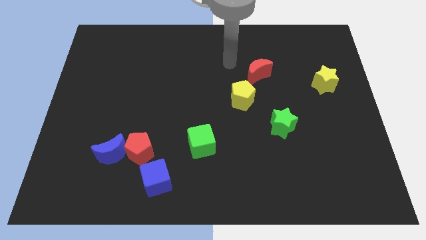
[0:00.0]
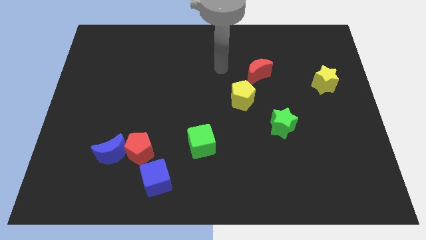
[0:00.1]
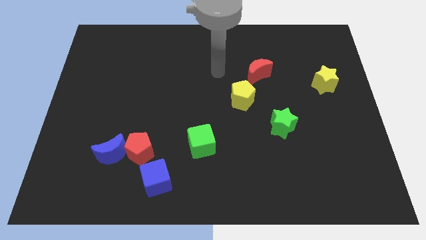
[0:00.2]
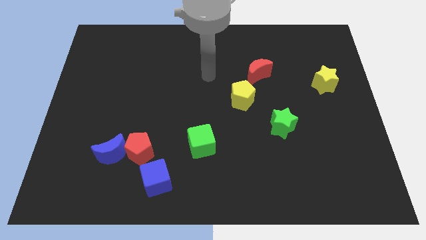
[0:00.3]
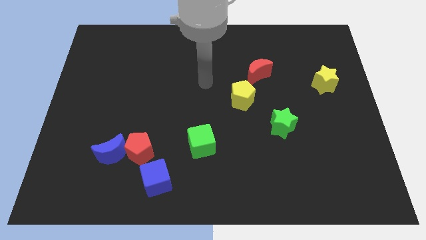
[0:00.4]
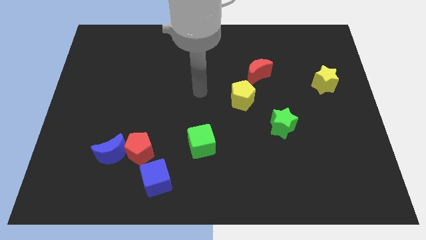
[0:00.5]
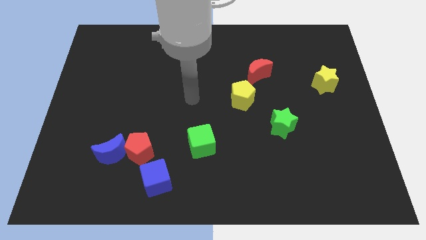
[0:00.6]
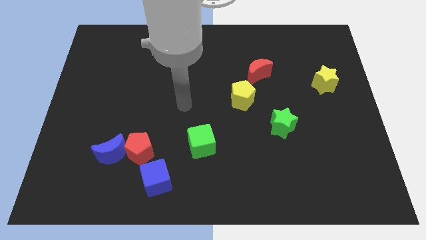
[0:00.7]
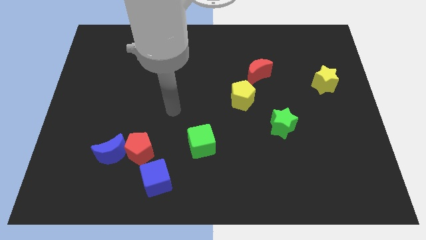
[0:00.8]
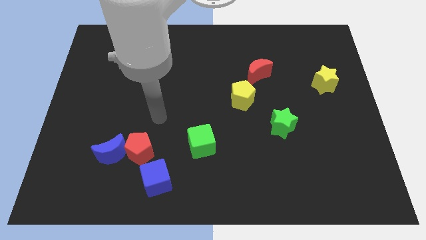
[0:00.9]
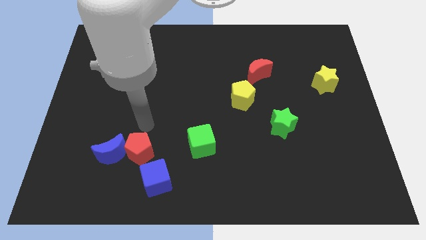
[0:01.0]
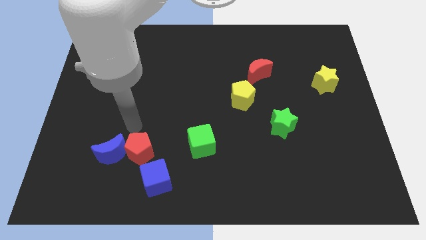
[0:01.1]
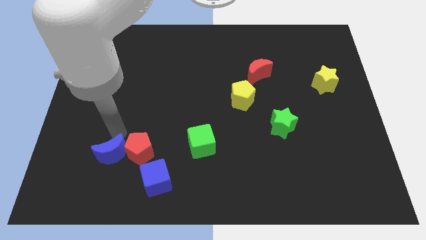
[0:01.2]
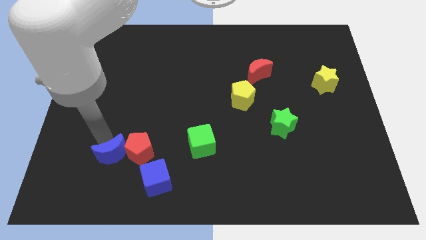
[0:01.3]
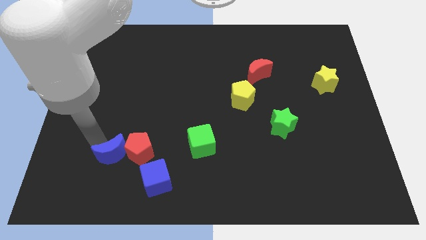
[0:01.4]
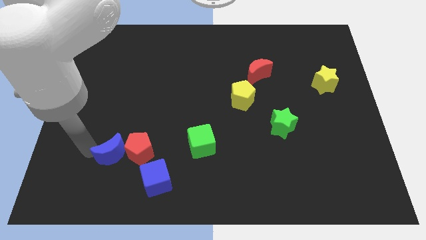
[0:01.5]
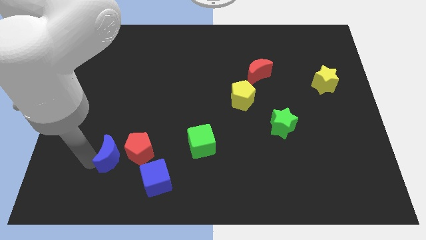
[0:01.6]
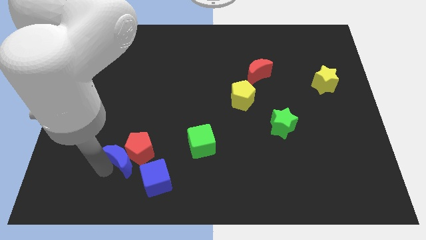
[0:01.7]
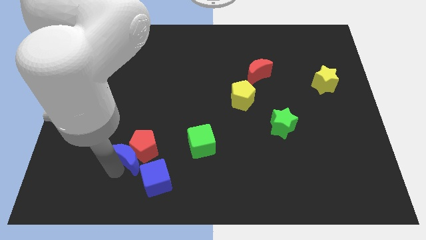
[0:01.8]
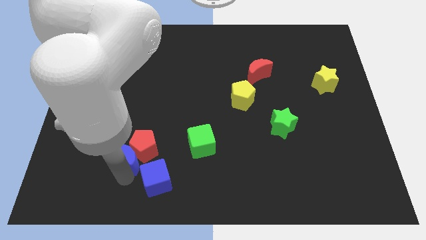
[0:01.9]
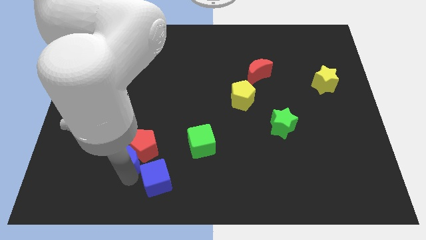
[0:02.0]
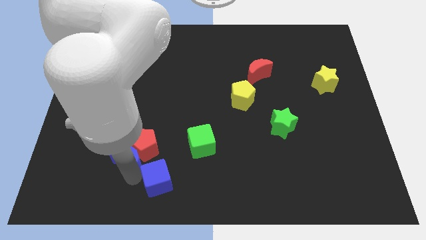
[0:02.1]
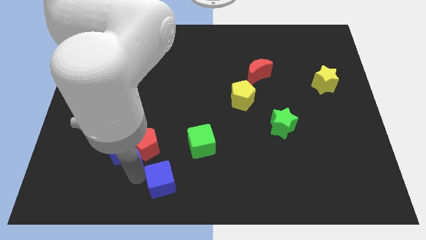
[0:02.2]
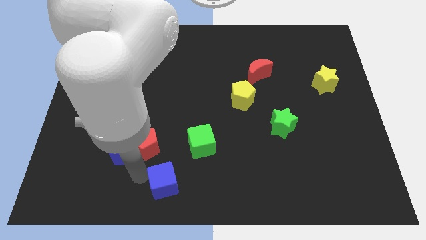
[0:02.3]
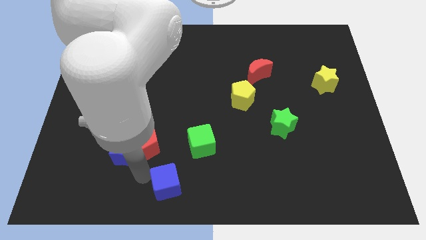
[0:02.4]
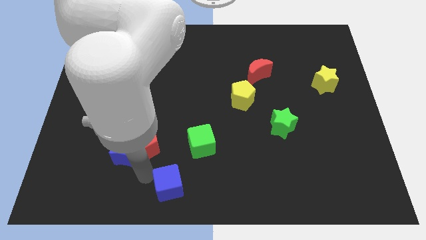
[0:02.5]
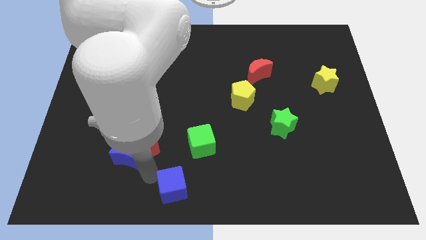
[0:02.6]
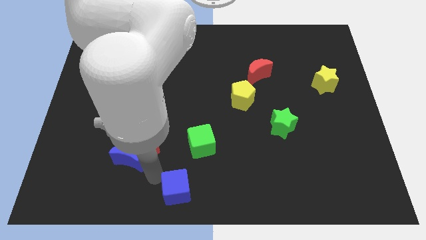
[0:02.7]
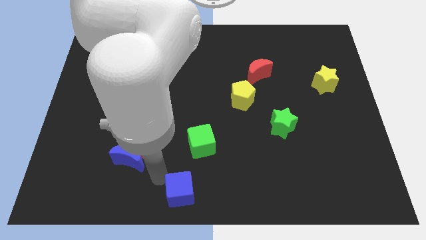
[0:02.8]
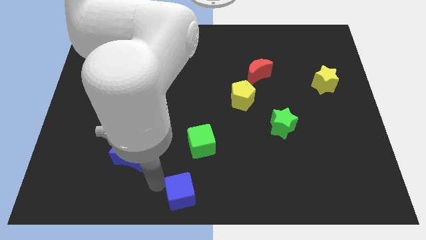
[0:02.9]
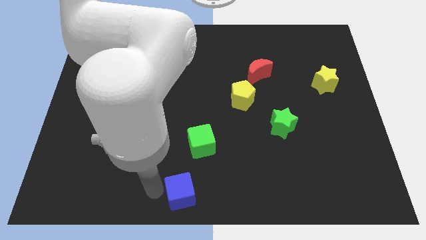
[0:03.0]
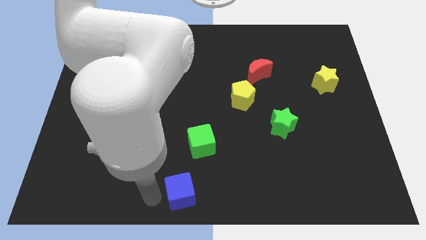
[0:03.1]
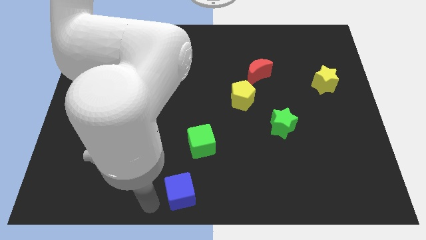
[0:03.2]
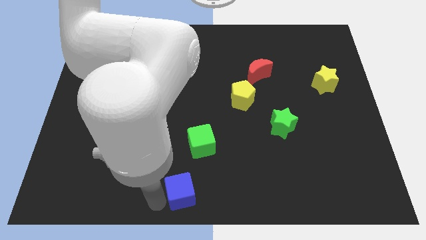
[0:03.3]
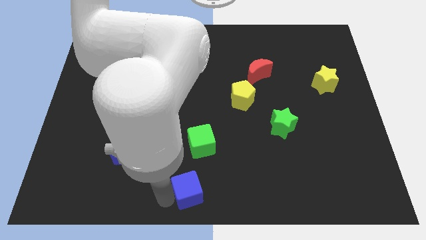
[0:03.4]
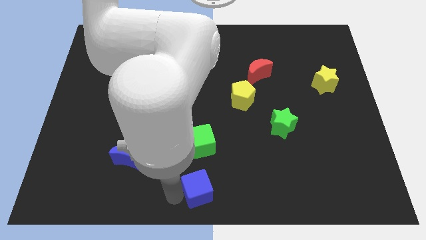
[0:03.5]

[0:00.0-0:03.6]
move the blue cube a little bit right

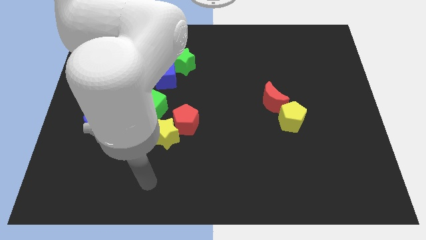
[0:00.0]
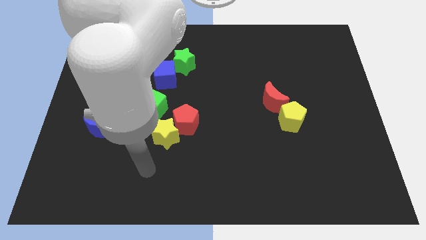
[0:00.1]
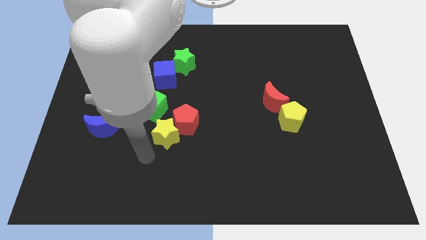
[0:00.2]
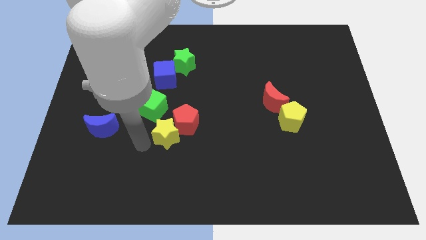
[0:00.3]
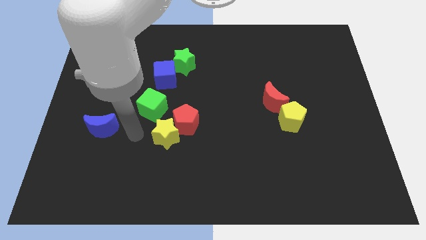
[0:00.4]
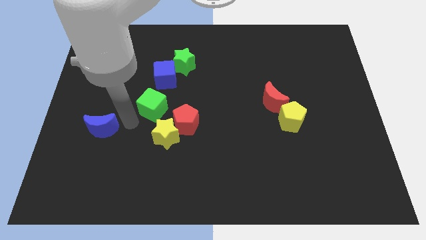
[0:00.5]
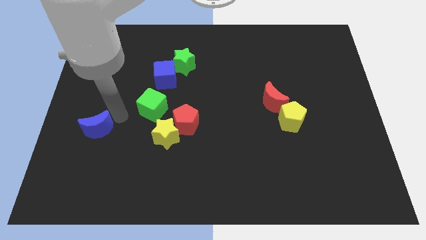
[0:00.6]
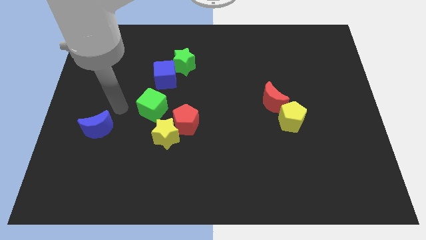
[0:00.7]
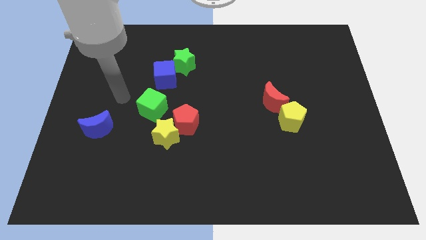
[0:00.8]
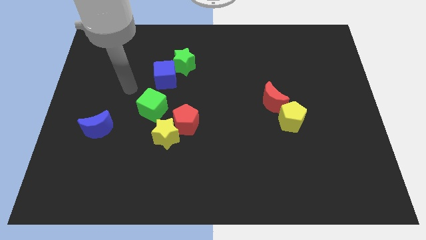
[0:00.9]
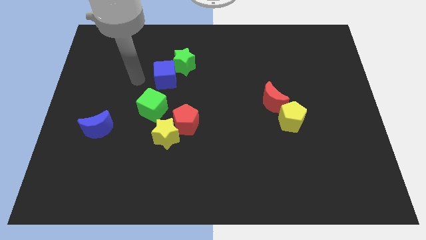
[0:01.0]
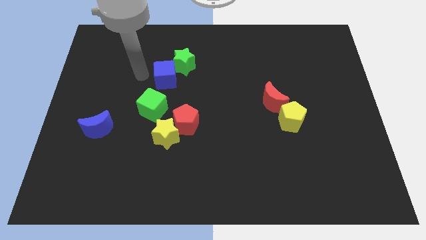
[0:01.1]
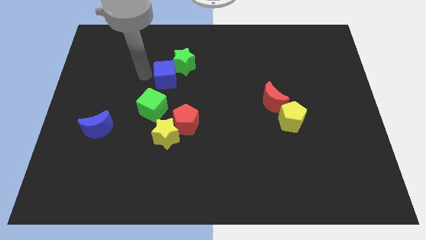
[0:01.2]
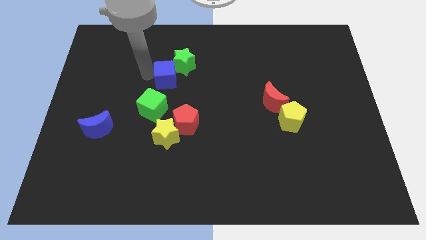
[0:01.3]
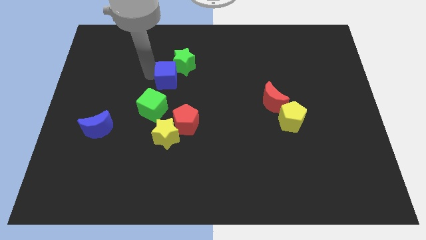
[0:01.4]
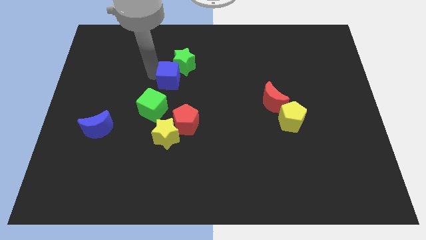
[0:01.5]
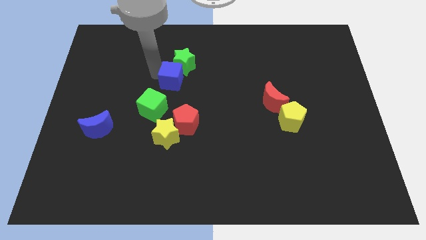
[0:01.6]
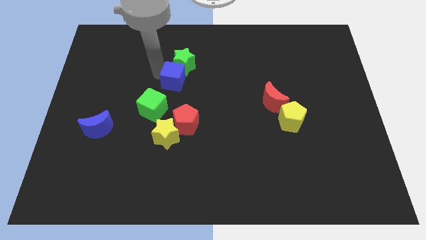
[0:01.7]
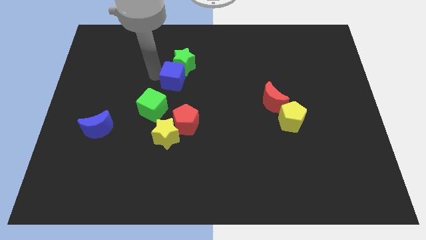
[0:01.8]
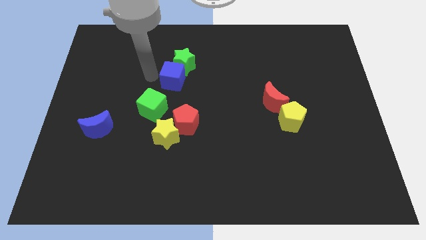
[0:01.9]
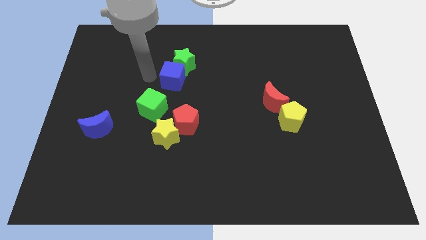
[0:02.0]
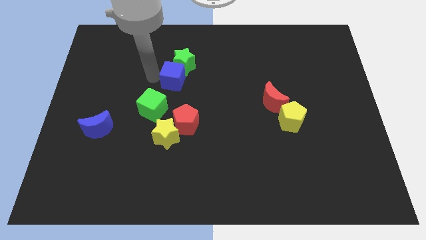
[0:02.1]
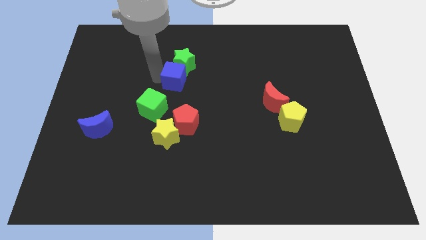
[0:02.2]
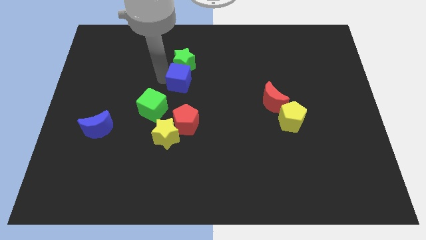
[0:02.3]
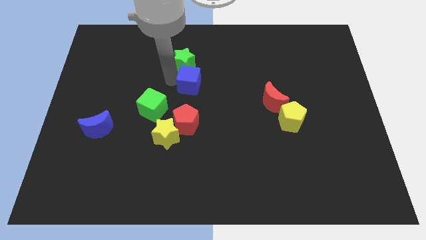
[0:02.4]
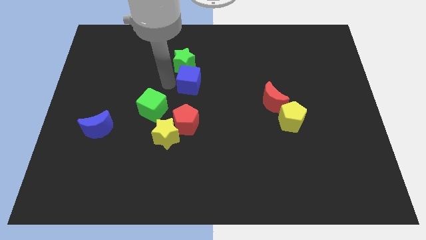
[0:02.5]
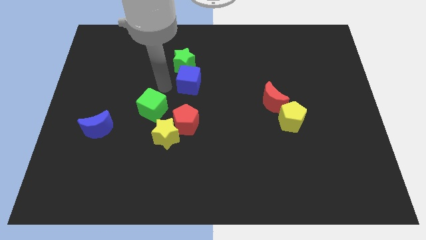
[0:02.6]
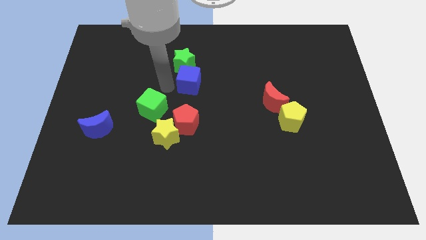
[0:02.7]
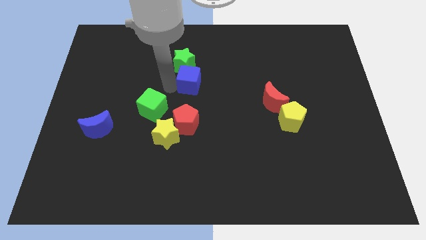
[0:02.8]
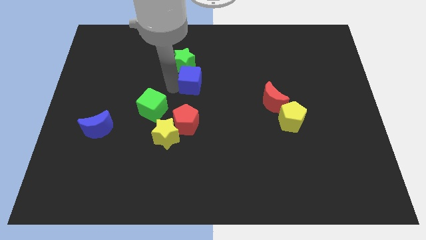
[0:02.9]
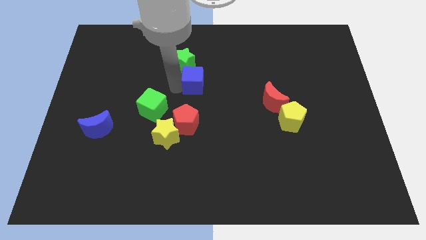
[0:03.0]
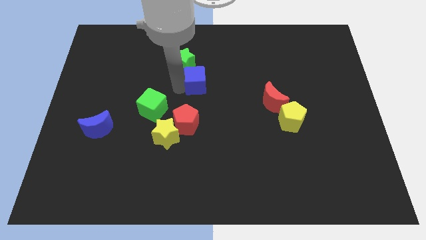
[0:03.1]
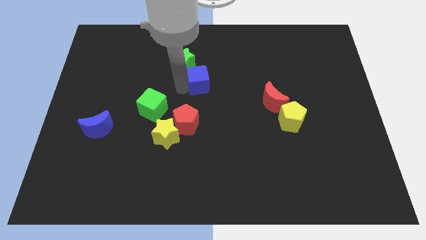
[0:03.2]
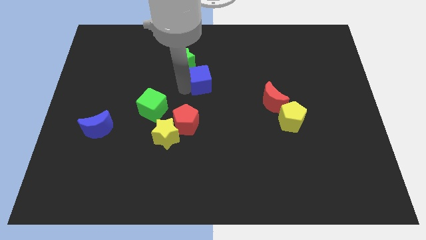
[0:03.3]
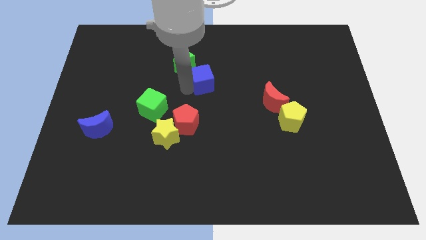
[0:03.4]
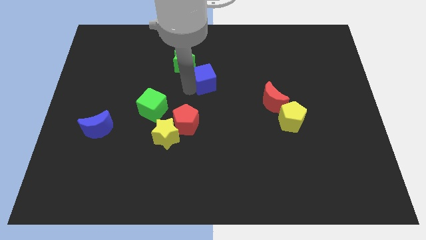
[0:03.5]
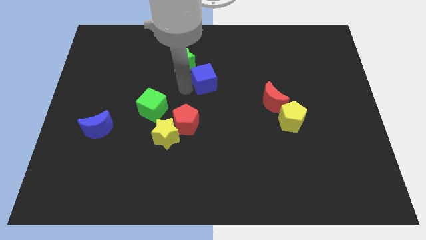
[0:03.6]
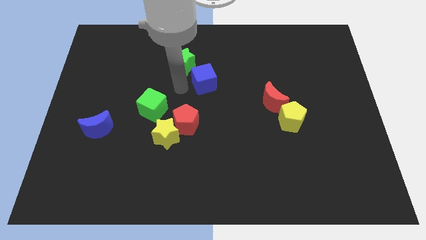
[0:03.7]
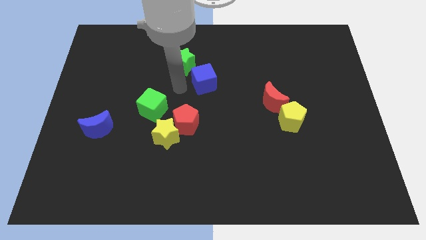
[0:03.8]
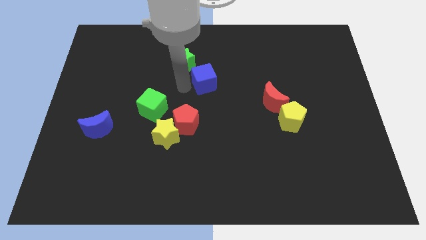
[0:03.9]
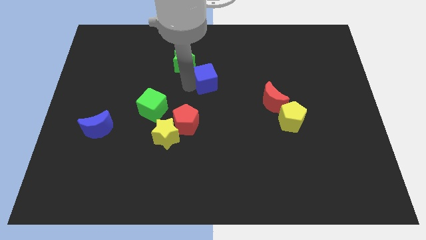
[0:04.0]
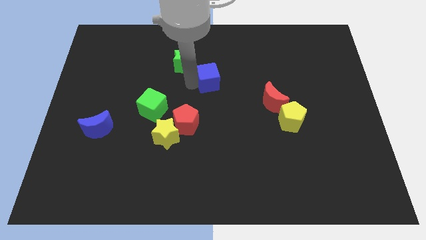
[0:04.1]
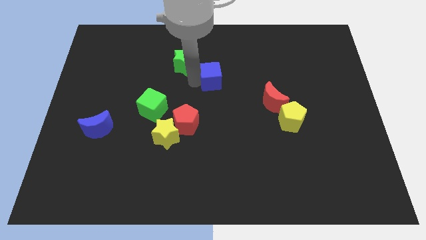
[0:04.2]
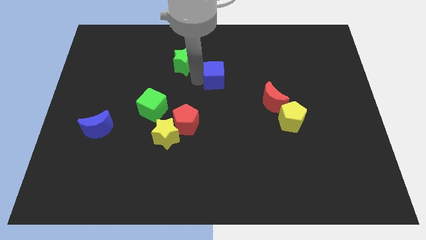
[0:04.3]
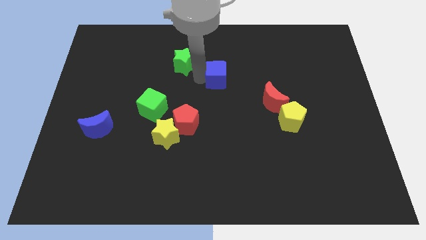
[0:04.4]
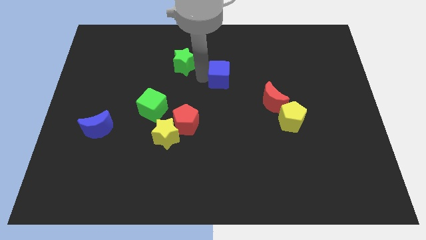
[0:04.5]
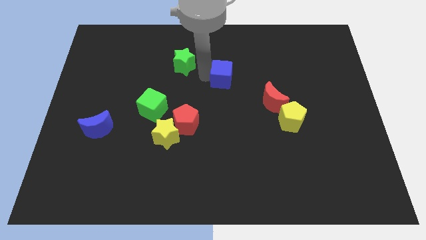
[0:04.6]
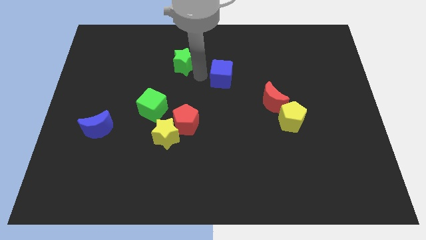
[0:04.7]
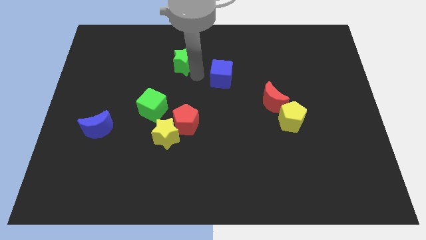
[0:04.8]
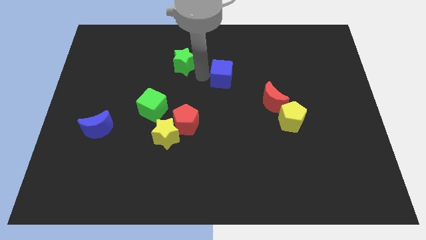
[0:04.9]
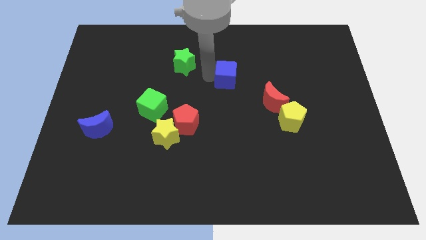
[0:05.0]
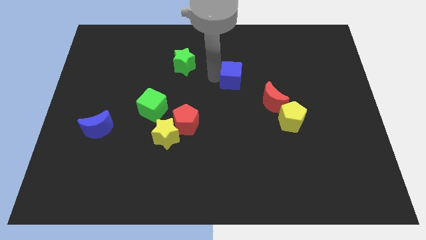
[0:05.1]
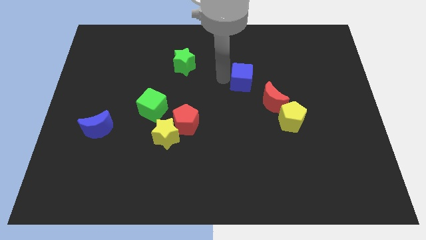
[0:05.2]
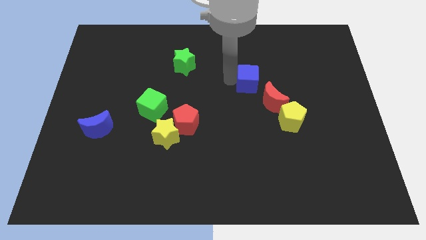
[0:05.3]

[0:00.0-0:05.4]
slide the blue cube to the right
